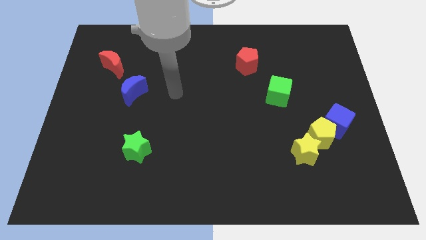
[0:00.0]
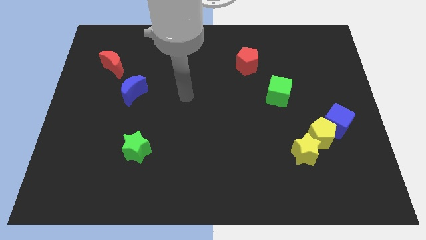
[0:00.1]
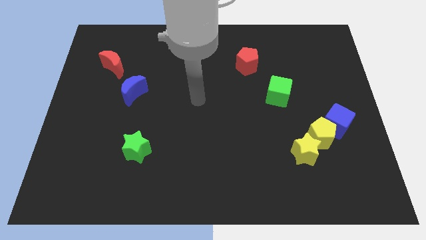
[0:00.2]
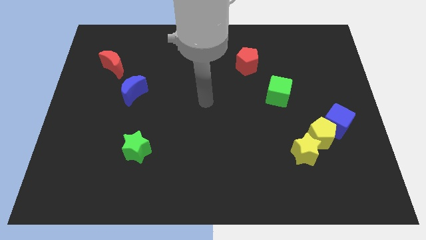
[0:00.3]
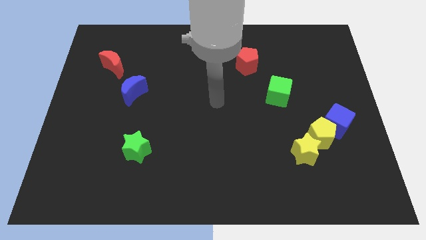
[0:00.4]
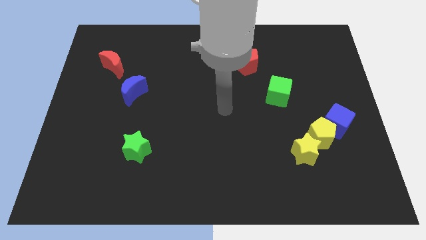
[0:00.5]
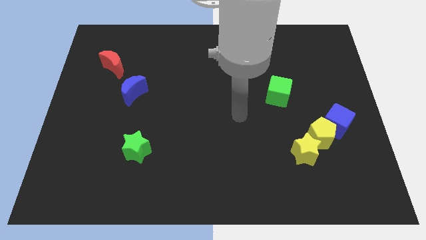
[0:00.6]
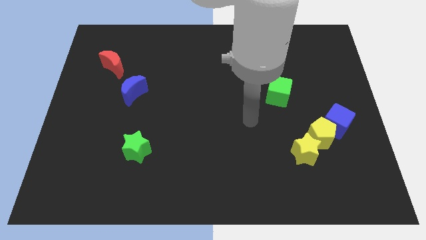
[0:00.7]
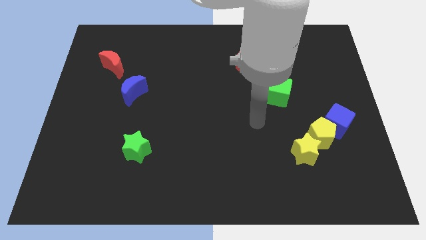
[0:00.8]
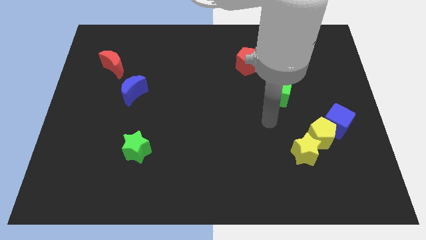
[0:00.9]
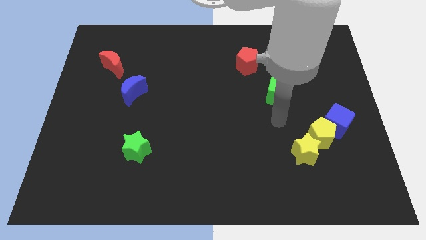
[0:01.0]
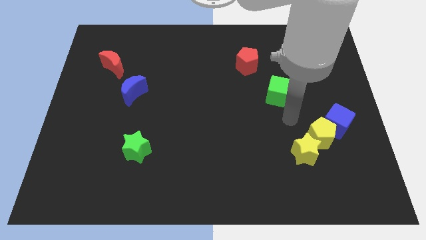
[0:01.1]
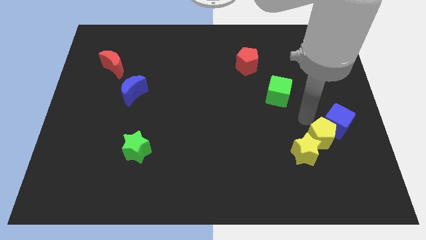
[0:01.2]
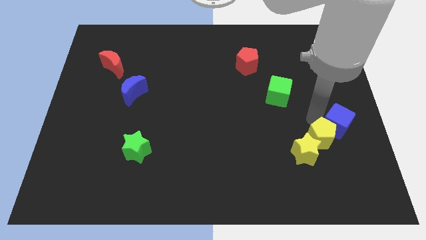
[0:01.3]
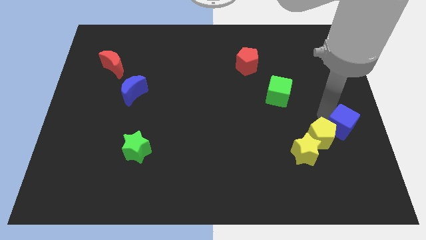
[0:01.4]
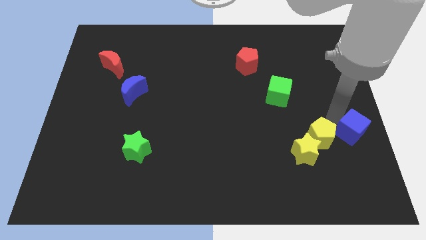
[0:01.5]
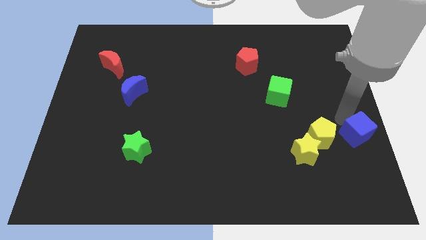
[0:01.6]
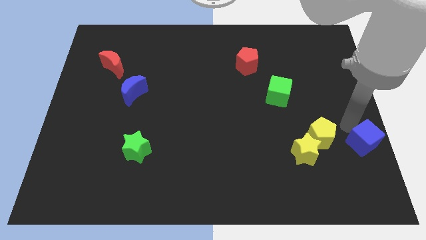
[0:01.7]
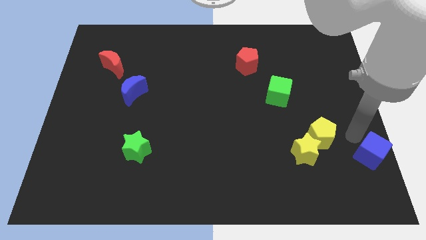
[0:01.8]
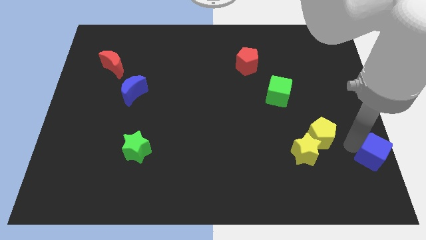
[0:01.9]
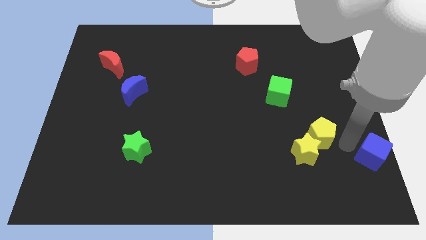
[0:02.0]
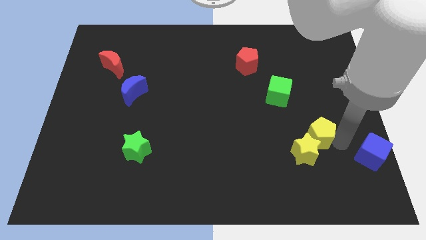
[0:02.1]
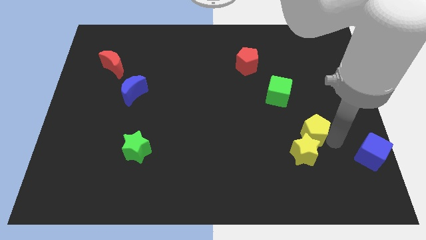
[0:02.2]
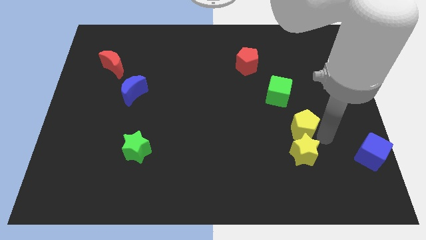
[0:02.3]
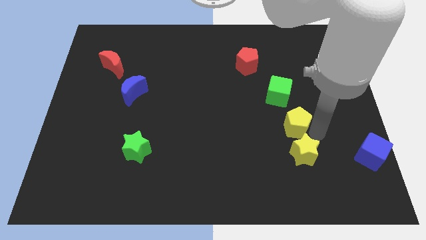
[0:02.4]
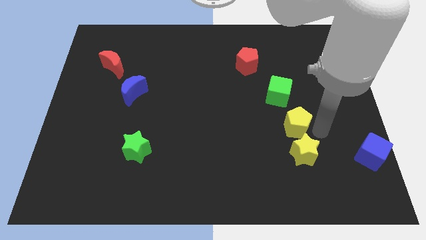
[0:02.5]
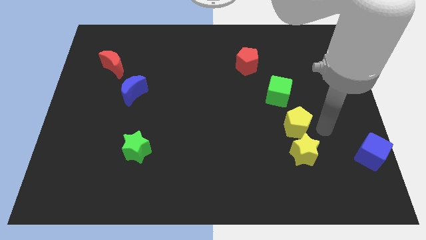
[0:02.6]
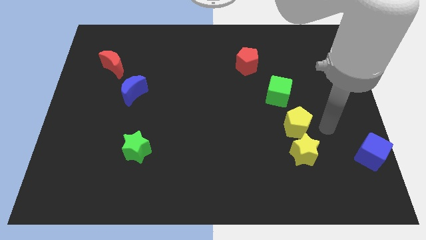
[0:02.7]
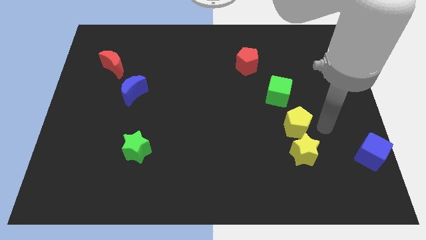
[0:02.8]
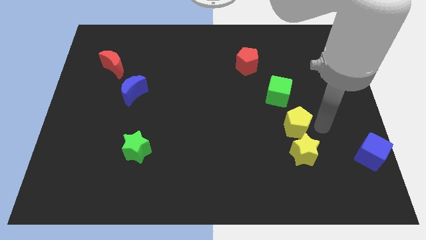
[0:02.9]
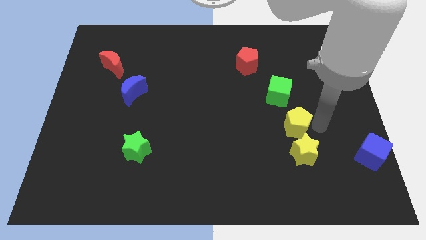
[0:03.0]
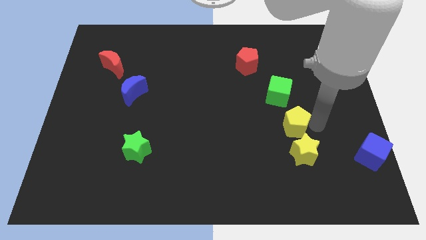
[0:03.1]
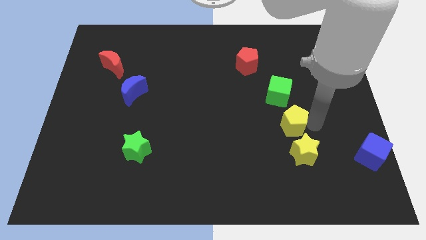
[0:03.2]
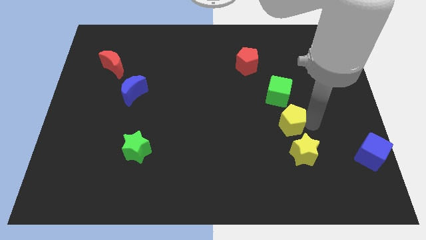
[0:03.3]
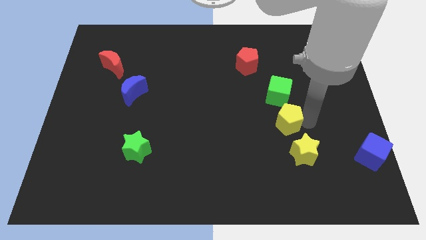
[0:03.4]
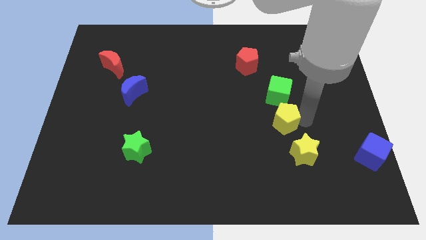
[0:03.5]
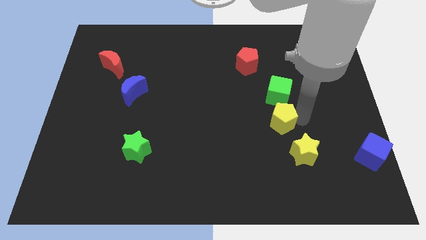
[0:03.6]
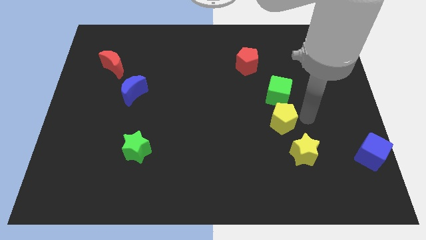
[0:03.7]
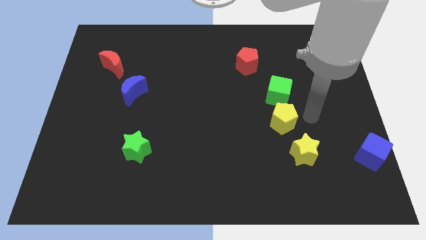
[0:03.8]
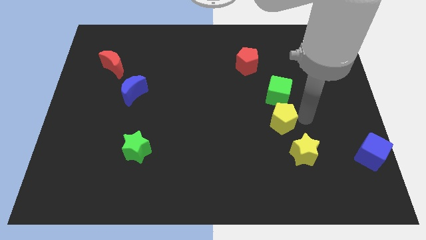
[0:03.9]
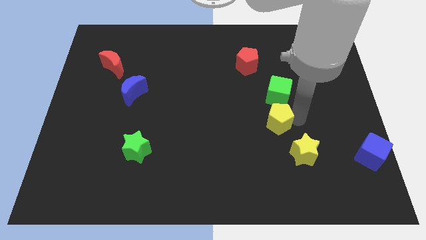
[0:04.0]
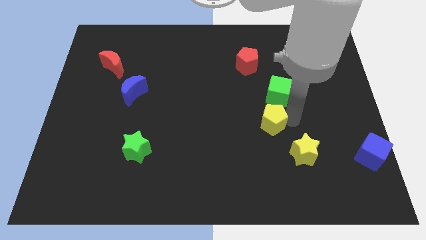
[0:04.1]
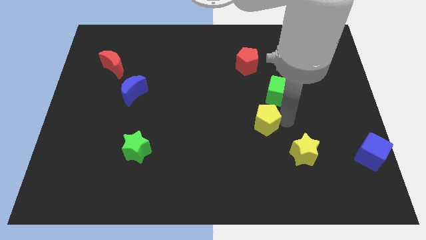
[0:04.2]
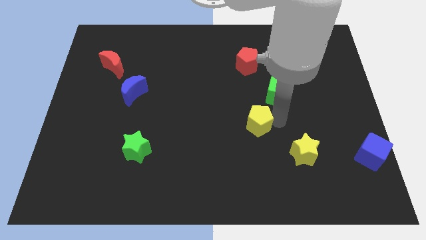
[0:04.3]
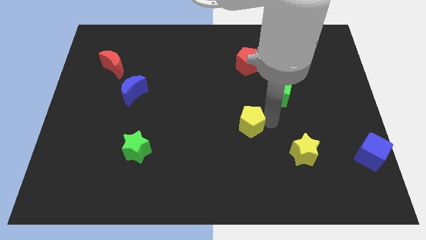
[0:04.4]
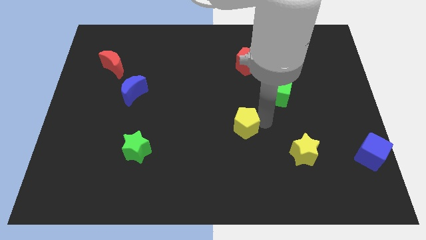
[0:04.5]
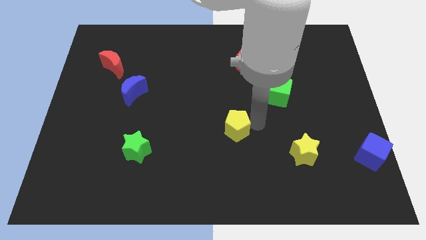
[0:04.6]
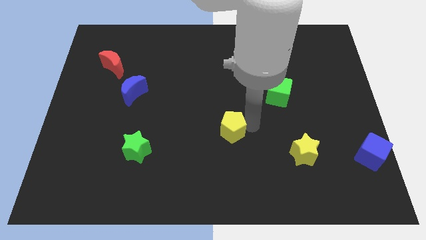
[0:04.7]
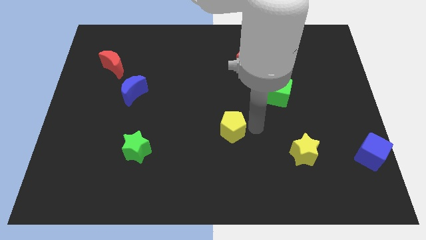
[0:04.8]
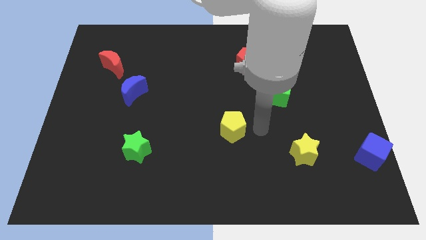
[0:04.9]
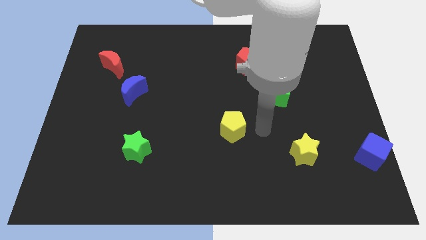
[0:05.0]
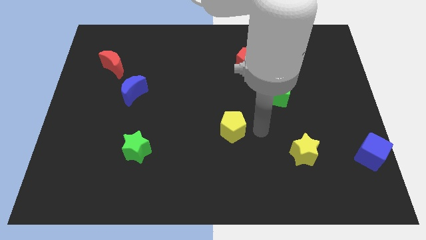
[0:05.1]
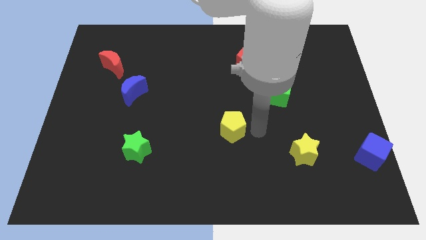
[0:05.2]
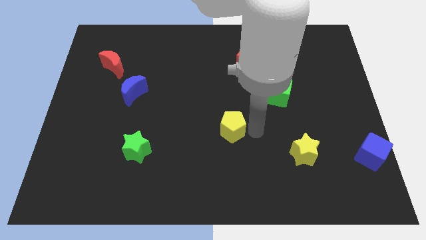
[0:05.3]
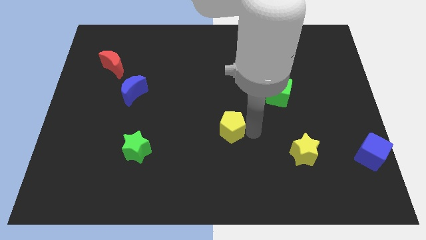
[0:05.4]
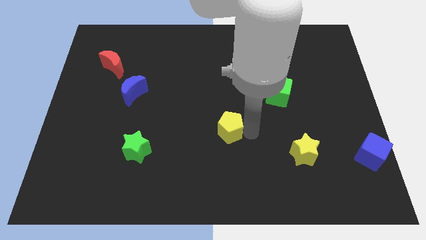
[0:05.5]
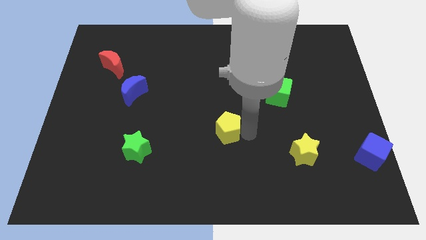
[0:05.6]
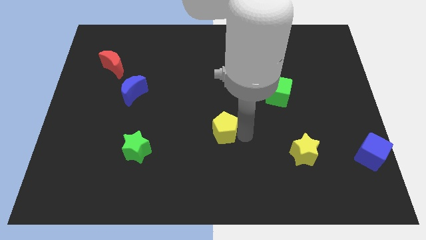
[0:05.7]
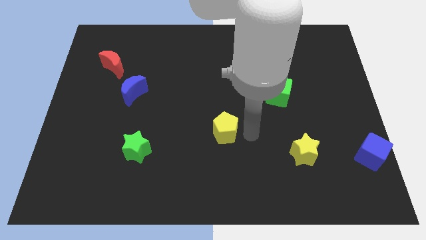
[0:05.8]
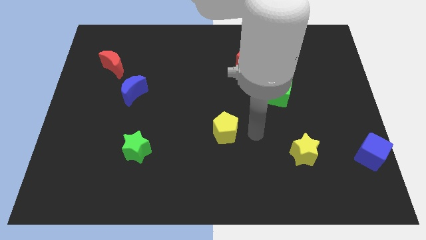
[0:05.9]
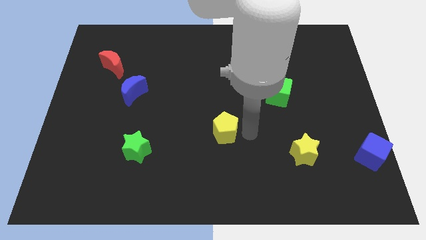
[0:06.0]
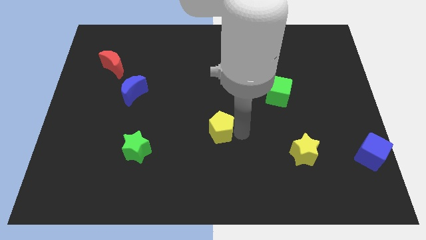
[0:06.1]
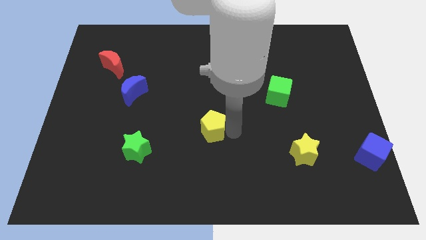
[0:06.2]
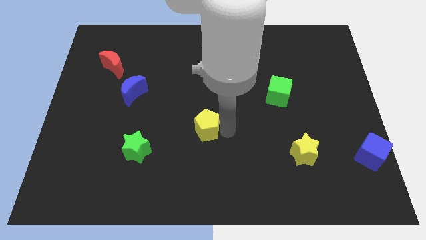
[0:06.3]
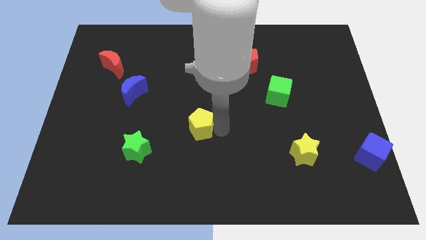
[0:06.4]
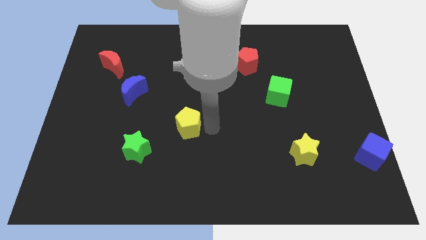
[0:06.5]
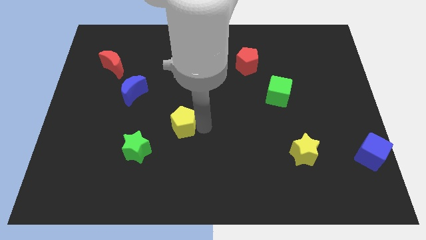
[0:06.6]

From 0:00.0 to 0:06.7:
put the yellow pentagon to the top right side of the green star

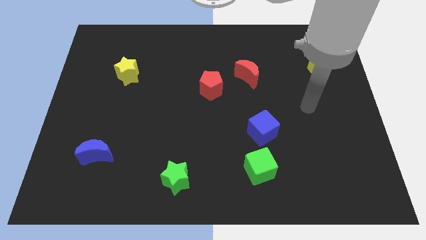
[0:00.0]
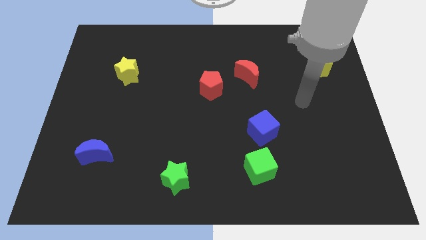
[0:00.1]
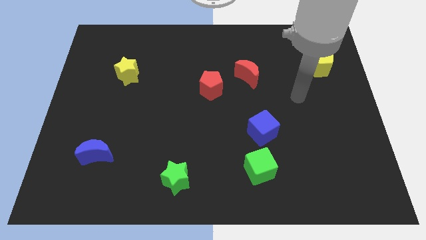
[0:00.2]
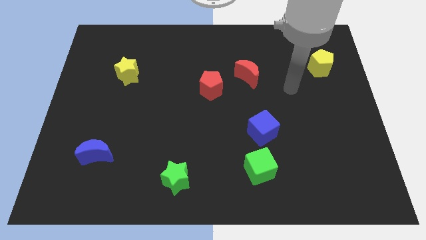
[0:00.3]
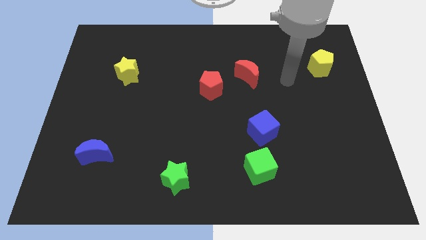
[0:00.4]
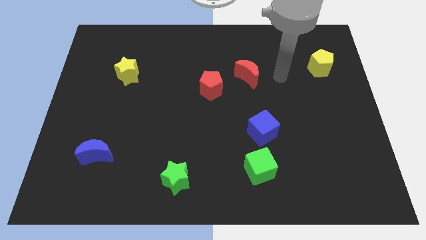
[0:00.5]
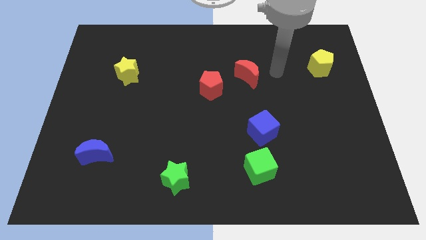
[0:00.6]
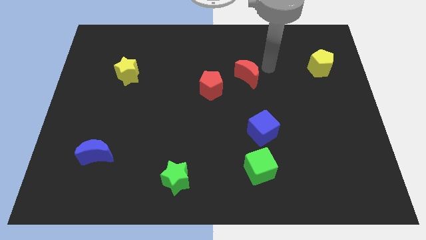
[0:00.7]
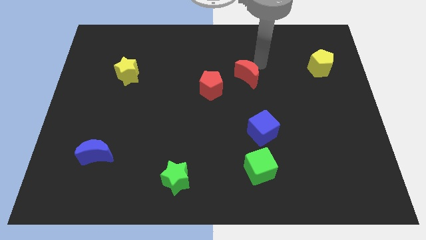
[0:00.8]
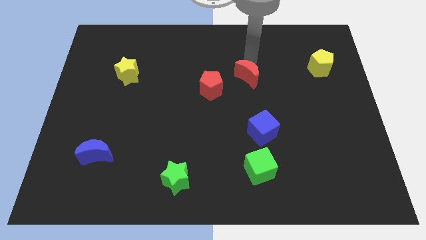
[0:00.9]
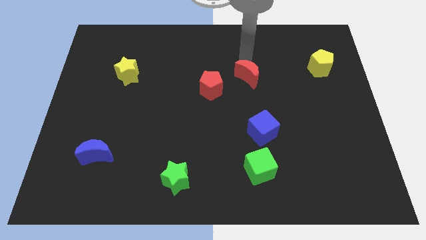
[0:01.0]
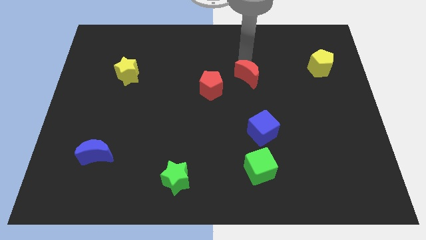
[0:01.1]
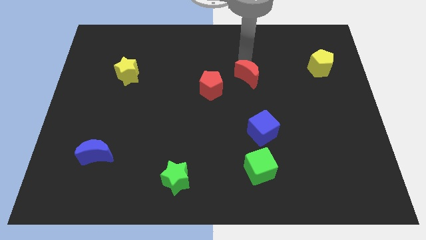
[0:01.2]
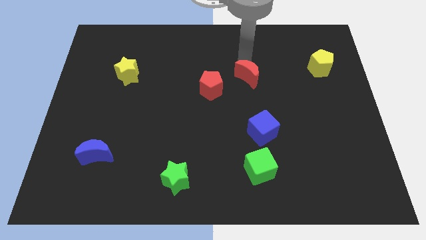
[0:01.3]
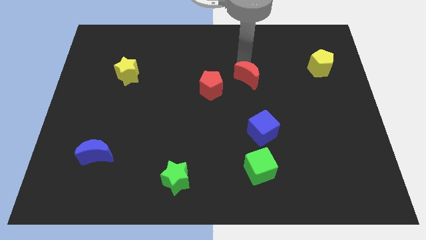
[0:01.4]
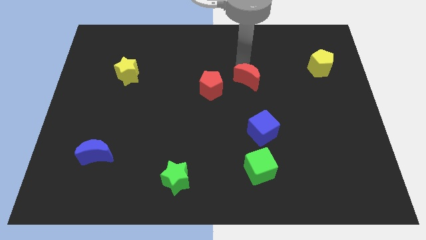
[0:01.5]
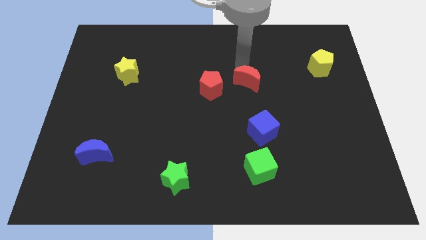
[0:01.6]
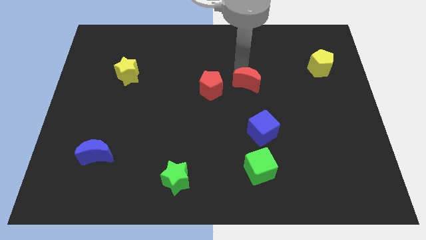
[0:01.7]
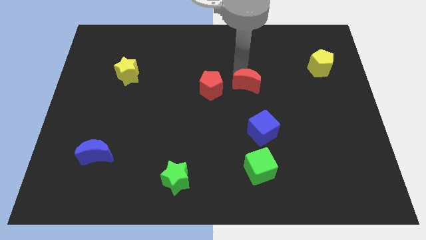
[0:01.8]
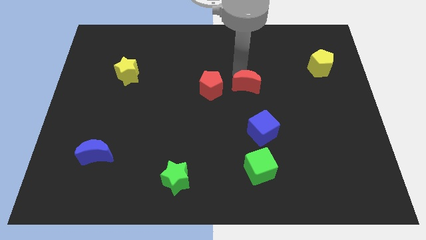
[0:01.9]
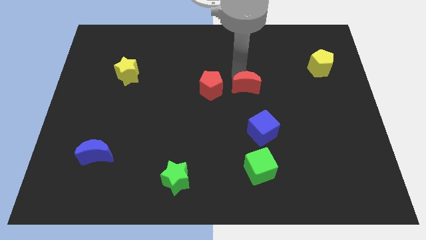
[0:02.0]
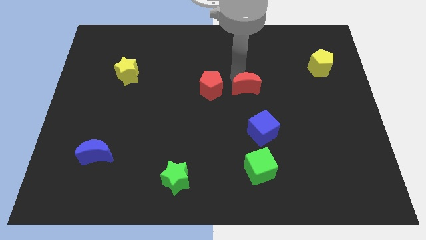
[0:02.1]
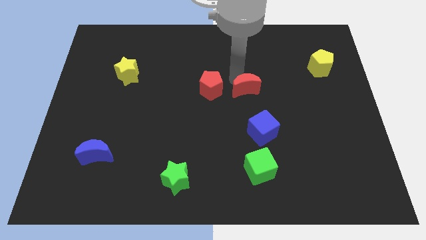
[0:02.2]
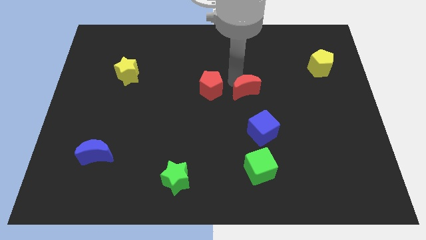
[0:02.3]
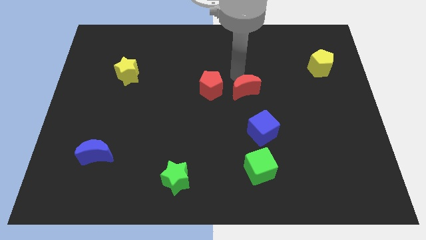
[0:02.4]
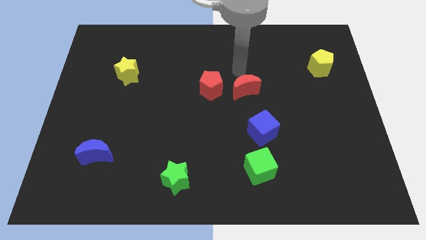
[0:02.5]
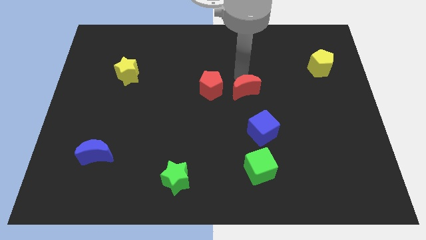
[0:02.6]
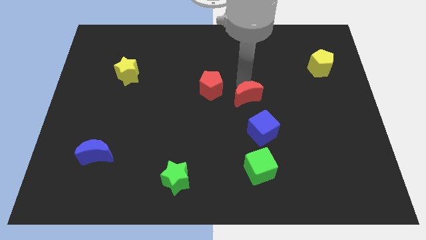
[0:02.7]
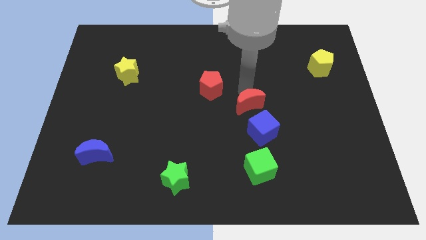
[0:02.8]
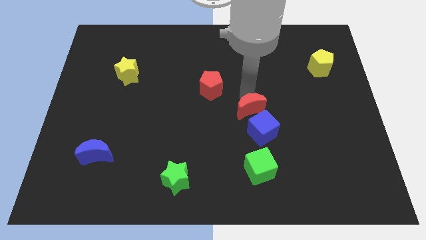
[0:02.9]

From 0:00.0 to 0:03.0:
put the red moon to the top of the green cube
